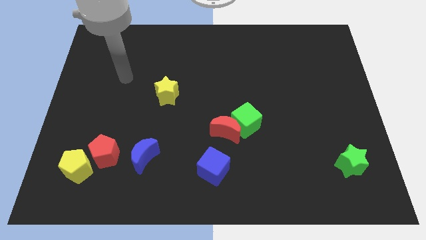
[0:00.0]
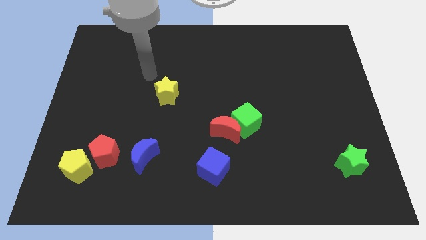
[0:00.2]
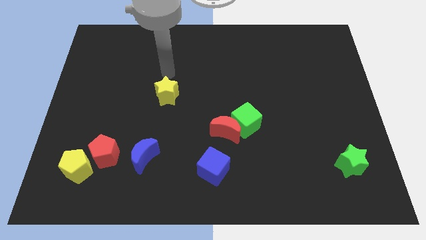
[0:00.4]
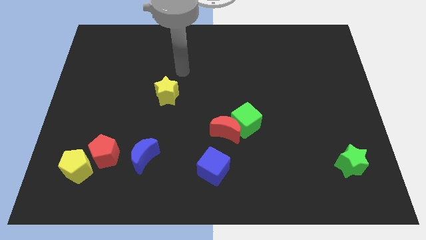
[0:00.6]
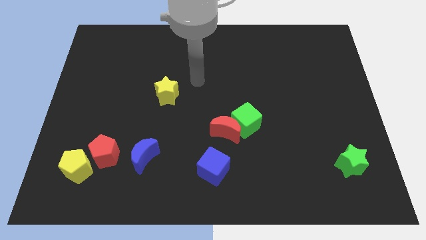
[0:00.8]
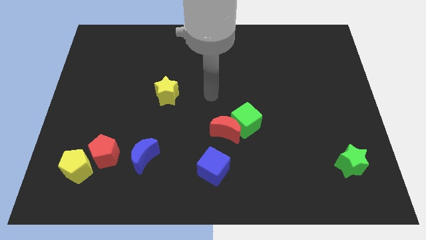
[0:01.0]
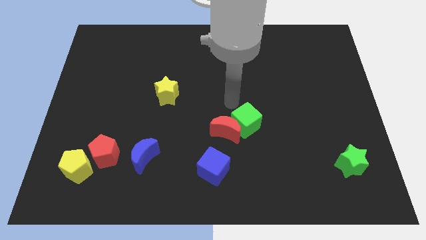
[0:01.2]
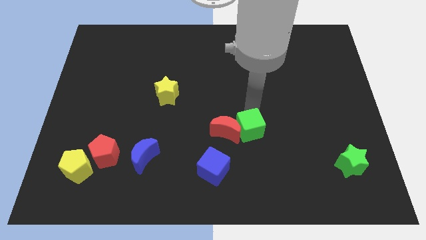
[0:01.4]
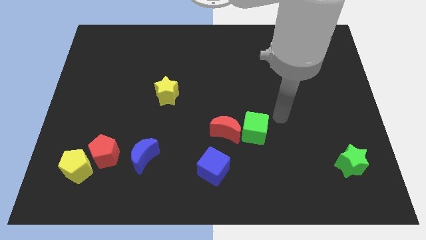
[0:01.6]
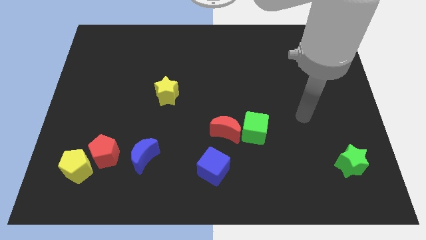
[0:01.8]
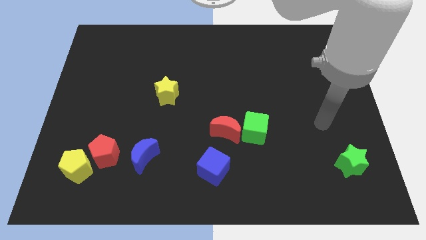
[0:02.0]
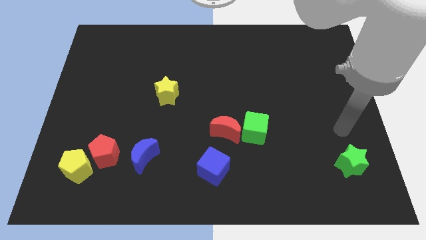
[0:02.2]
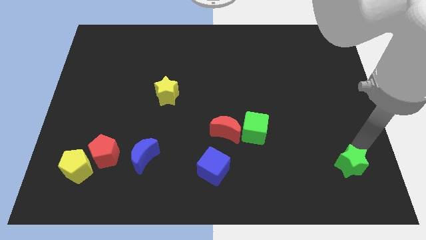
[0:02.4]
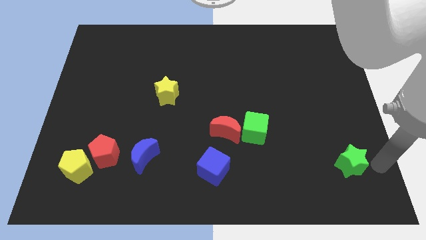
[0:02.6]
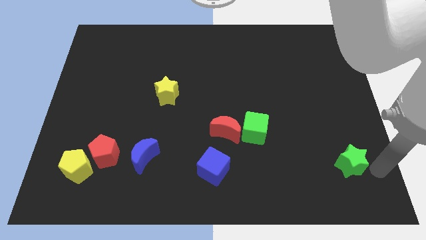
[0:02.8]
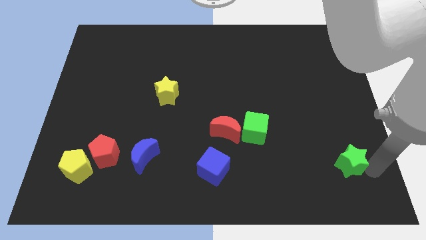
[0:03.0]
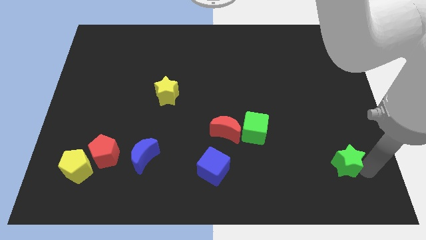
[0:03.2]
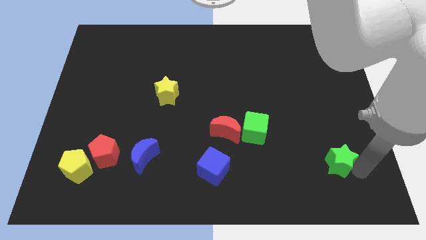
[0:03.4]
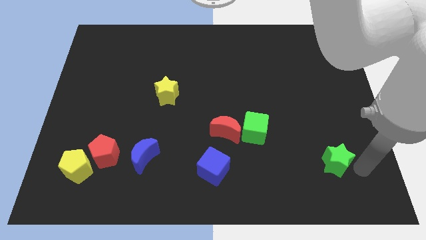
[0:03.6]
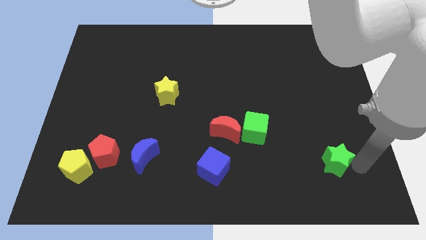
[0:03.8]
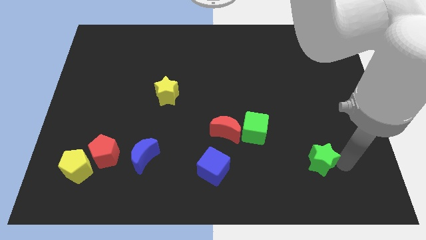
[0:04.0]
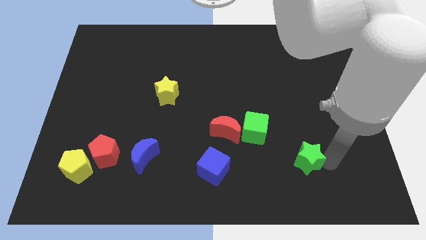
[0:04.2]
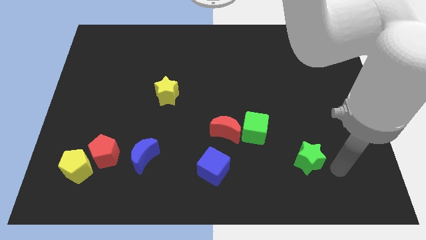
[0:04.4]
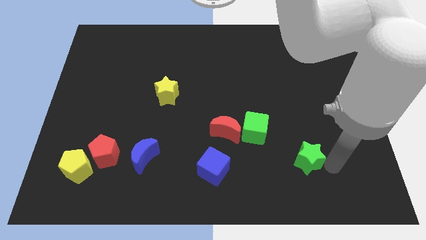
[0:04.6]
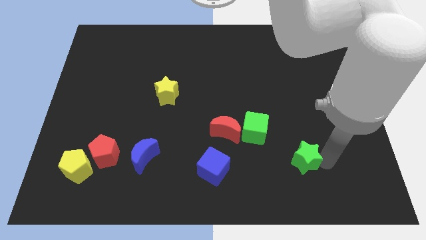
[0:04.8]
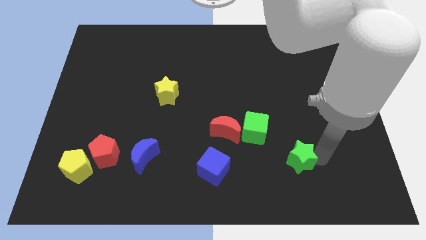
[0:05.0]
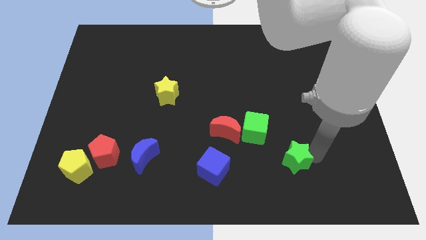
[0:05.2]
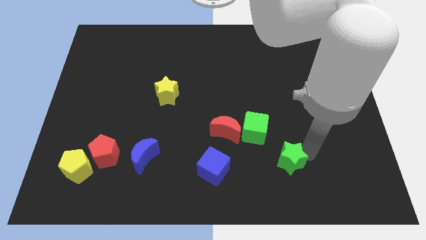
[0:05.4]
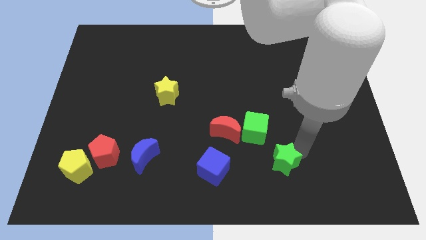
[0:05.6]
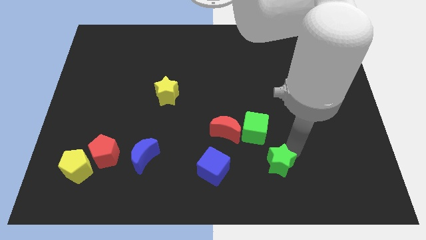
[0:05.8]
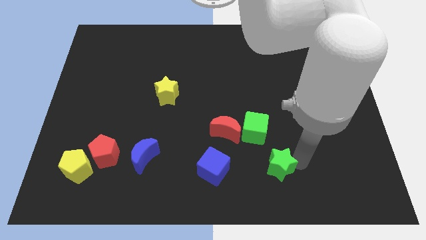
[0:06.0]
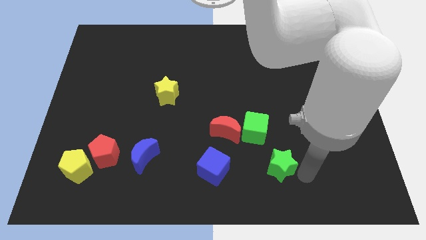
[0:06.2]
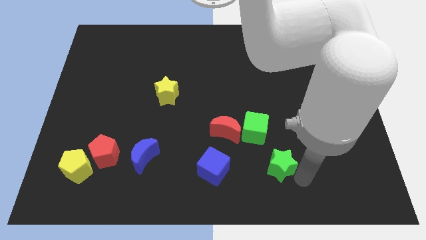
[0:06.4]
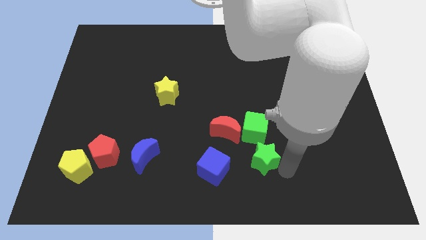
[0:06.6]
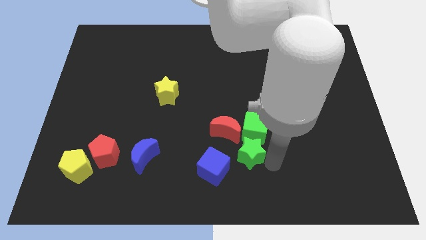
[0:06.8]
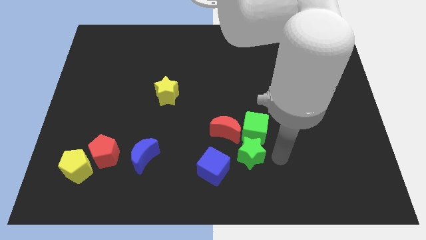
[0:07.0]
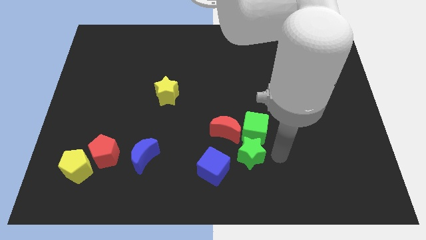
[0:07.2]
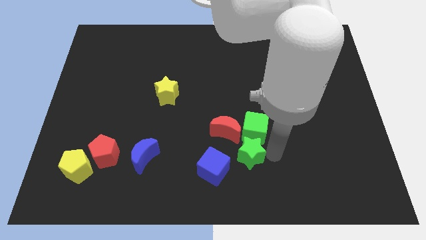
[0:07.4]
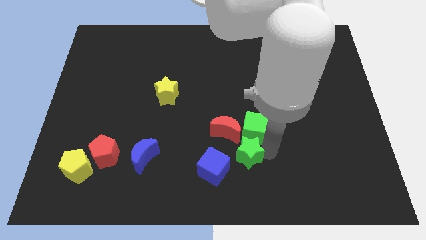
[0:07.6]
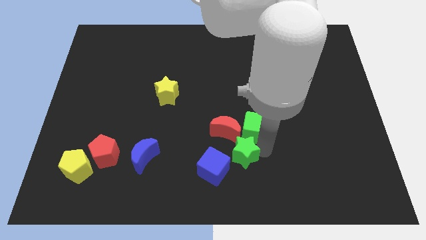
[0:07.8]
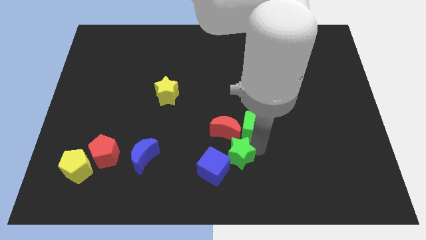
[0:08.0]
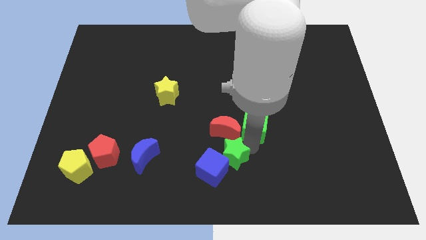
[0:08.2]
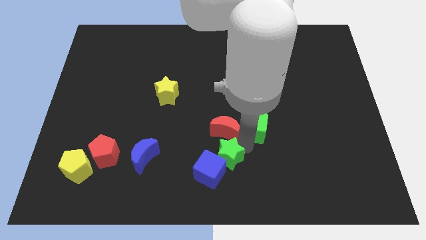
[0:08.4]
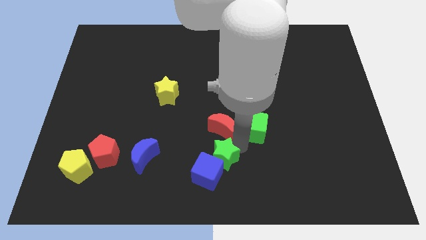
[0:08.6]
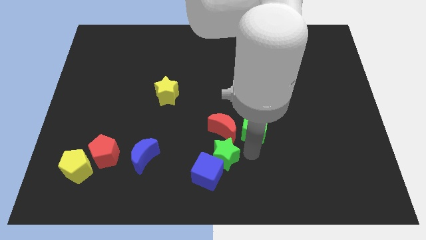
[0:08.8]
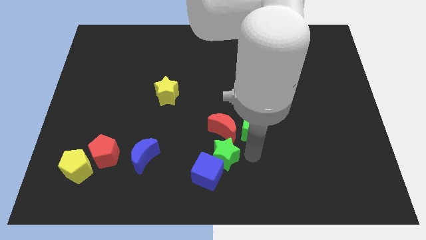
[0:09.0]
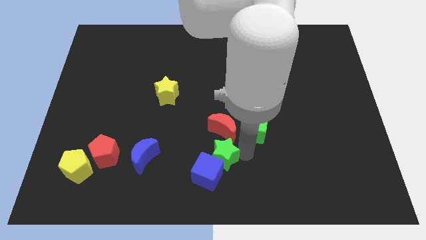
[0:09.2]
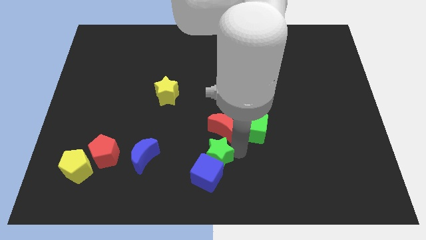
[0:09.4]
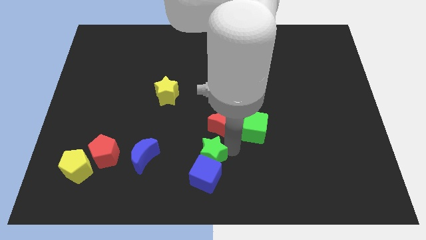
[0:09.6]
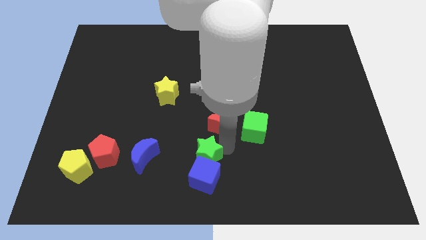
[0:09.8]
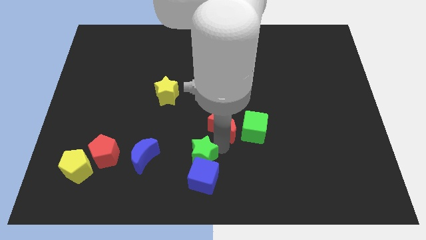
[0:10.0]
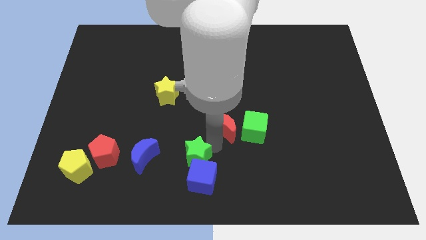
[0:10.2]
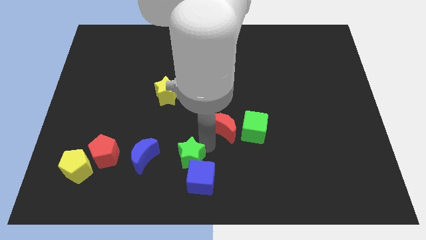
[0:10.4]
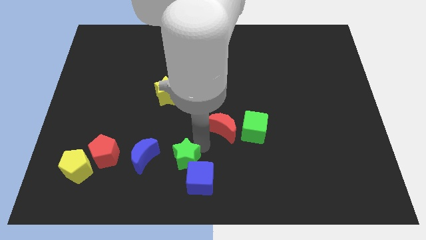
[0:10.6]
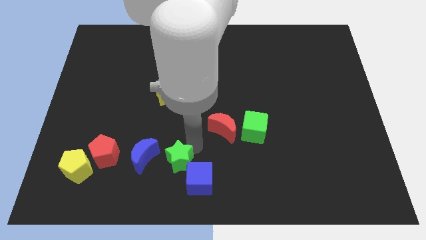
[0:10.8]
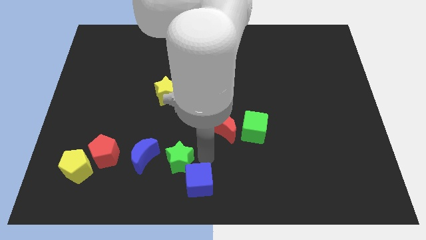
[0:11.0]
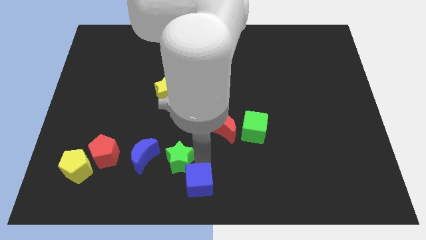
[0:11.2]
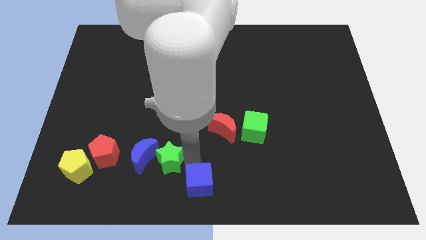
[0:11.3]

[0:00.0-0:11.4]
move the green star towards the blue moon

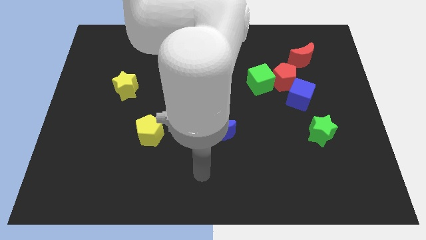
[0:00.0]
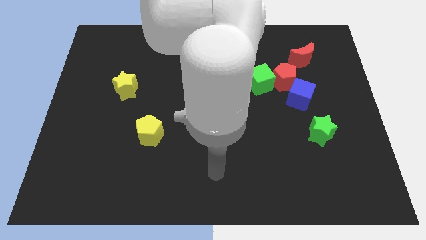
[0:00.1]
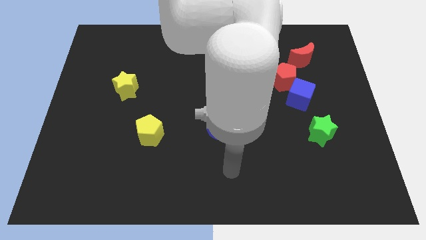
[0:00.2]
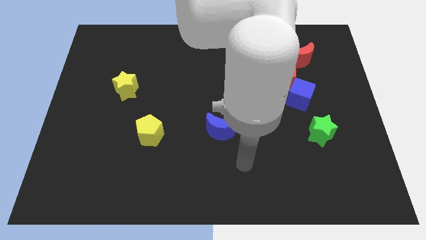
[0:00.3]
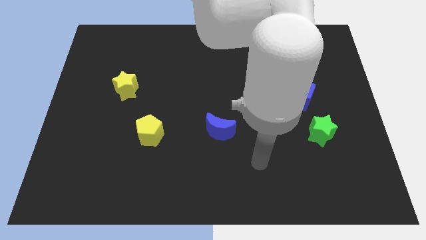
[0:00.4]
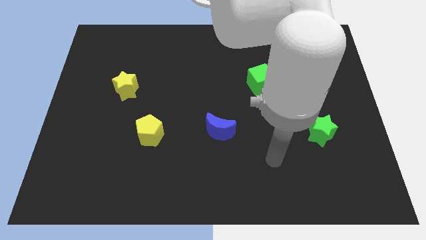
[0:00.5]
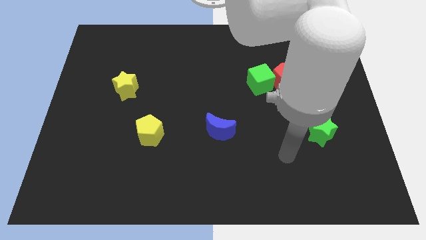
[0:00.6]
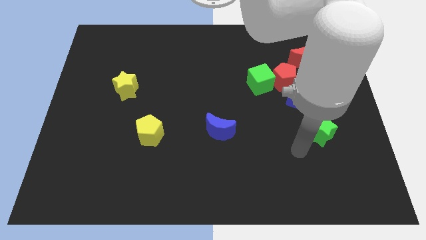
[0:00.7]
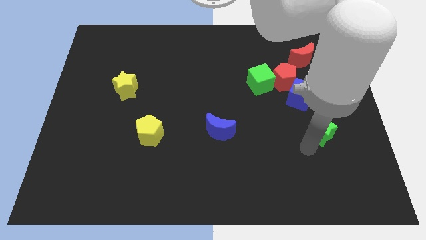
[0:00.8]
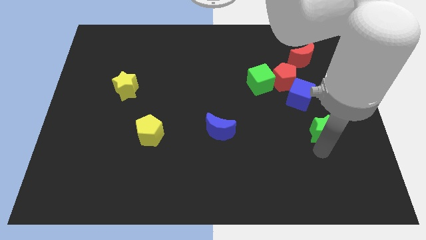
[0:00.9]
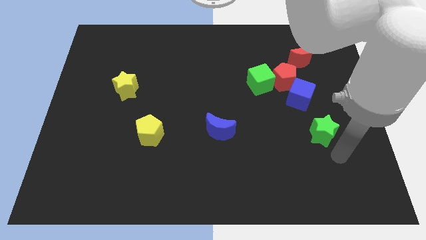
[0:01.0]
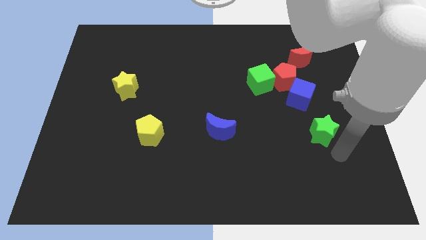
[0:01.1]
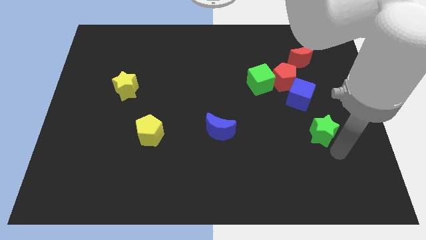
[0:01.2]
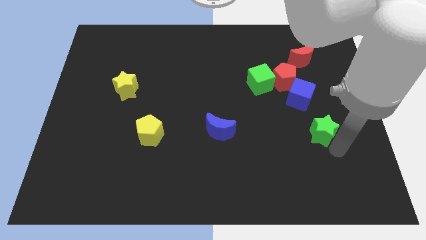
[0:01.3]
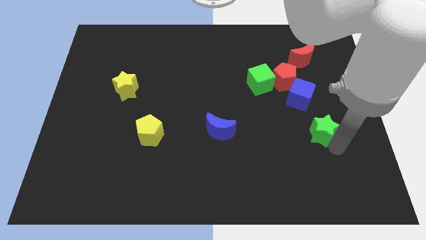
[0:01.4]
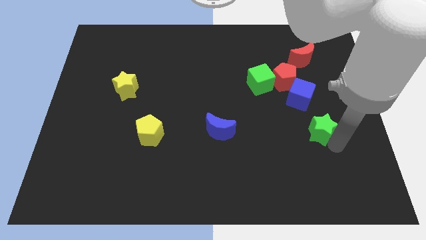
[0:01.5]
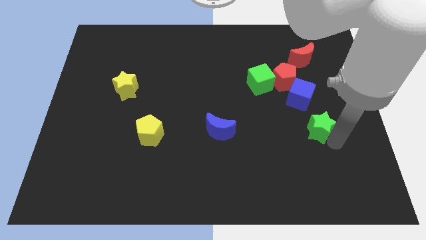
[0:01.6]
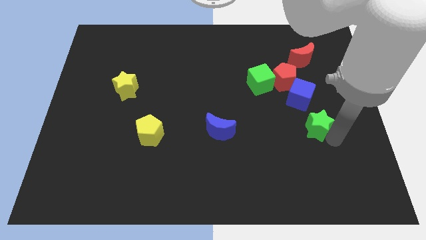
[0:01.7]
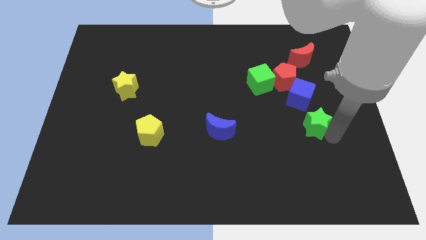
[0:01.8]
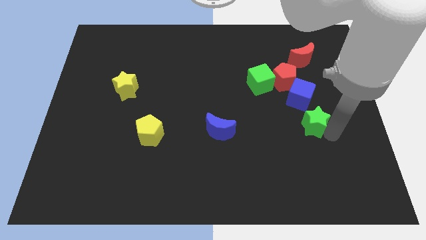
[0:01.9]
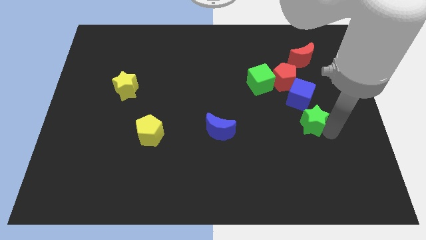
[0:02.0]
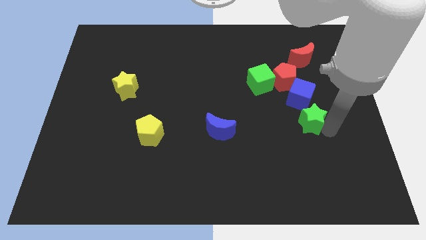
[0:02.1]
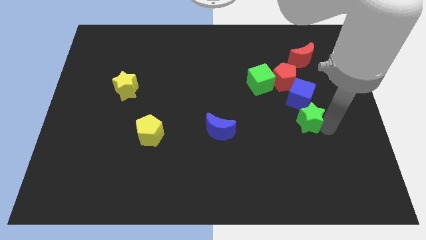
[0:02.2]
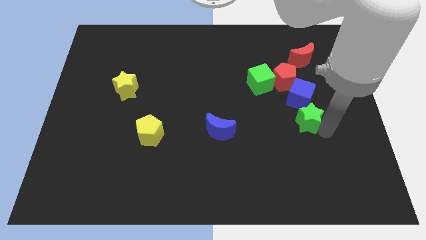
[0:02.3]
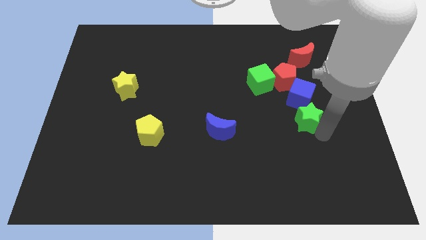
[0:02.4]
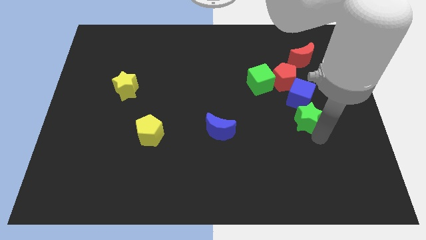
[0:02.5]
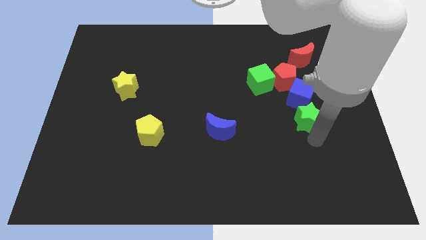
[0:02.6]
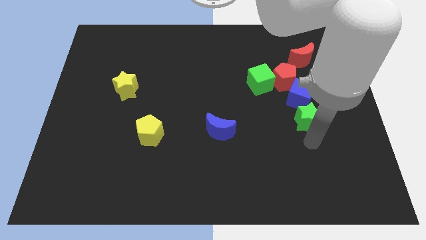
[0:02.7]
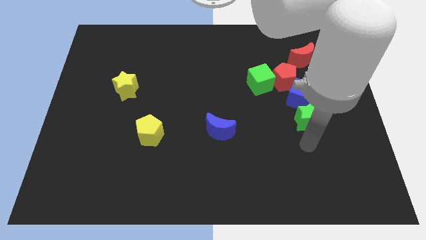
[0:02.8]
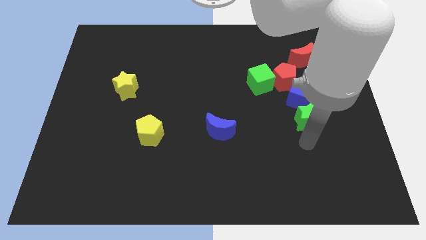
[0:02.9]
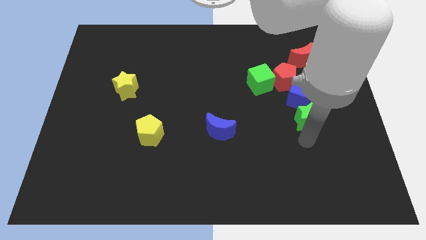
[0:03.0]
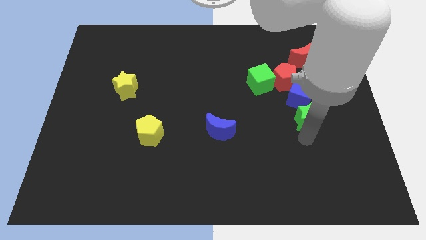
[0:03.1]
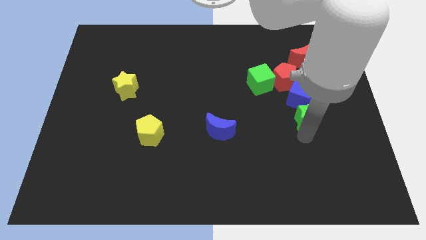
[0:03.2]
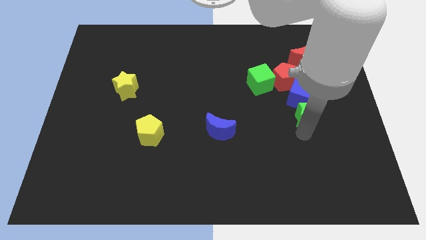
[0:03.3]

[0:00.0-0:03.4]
slide the green star towards the blue cube
